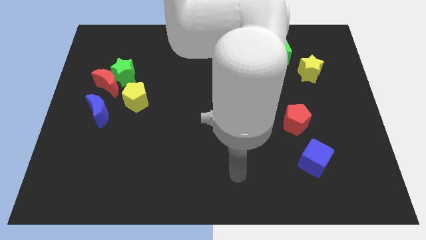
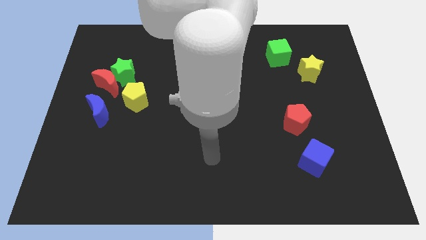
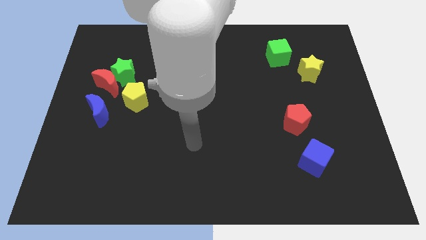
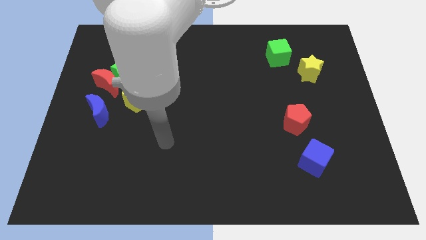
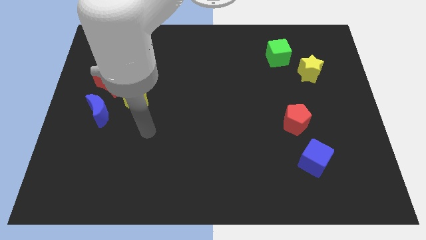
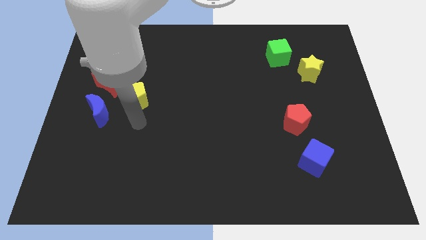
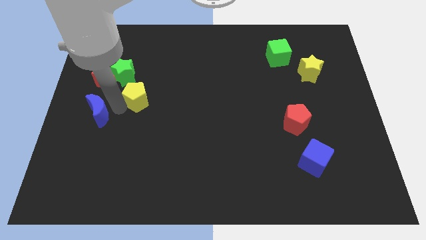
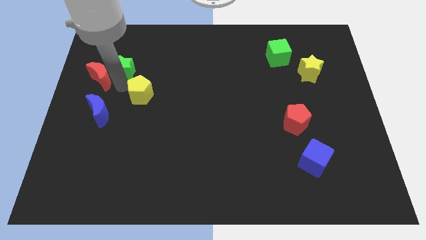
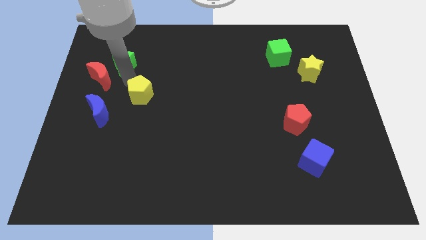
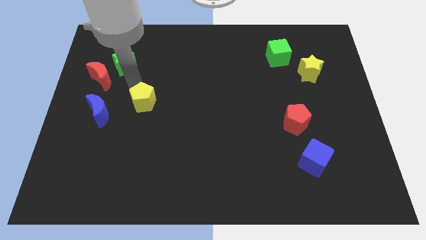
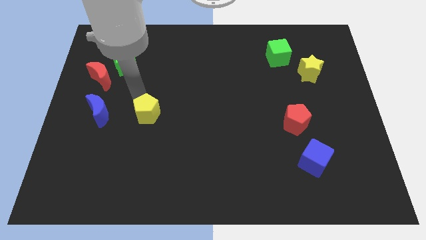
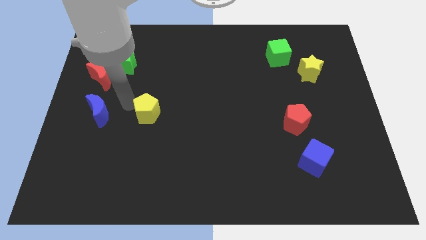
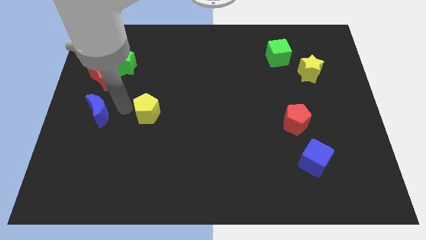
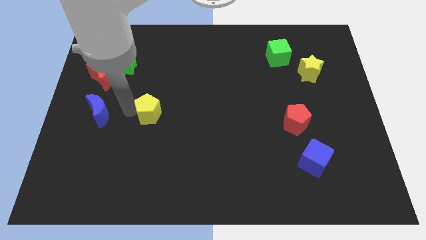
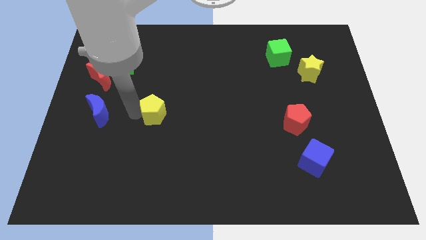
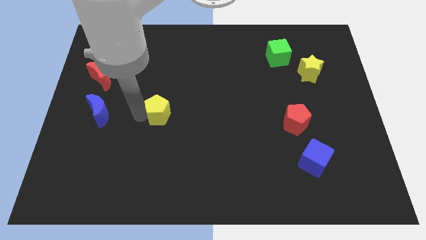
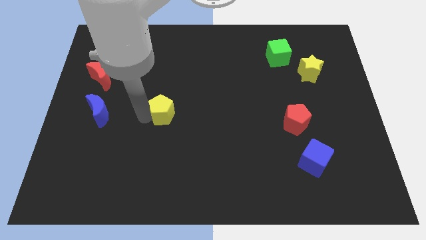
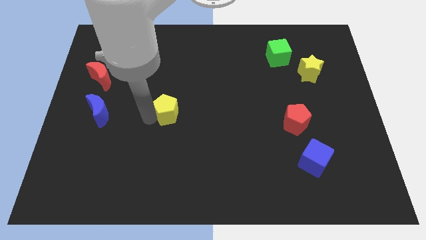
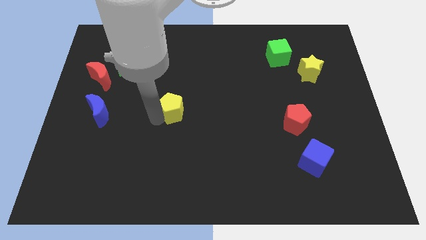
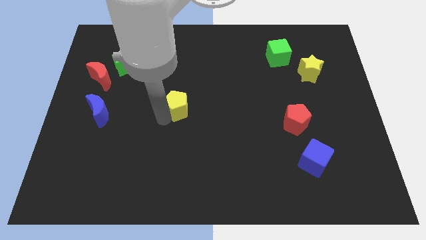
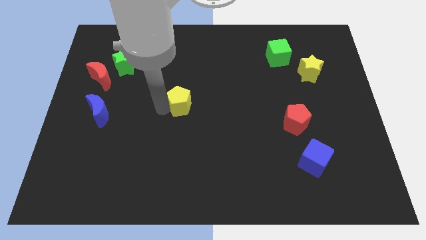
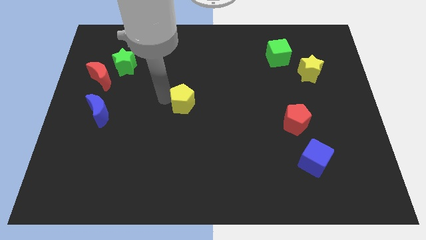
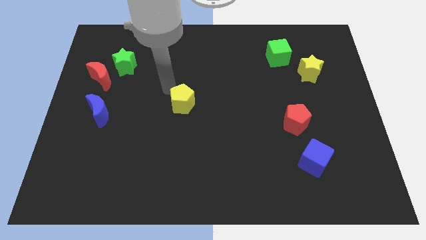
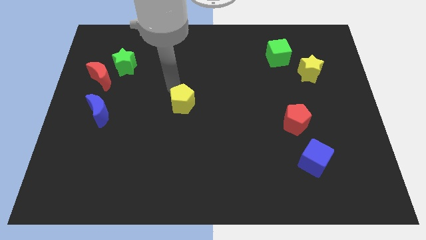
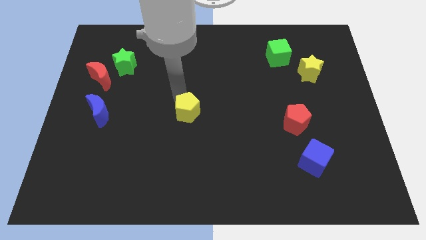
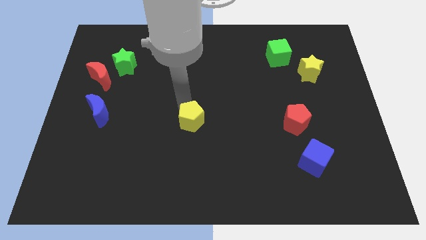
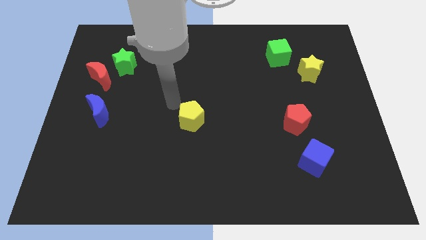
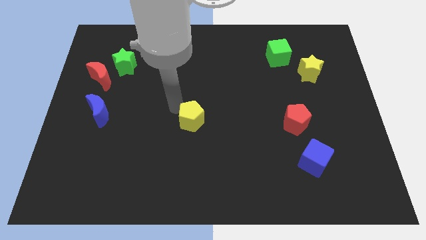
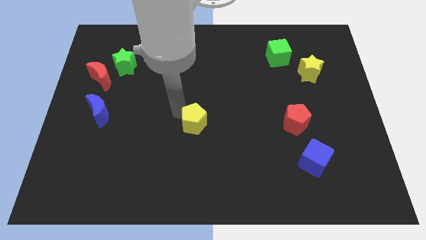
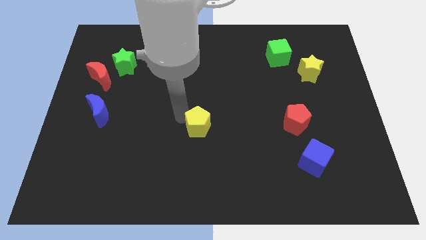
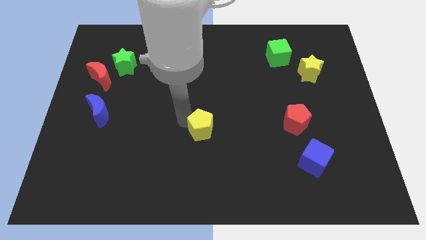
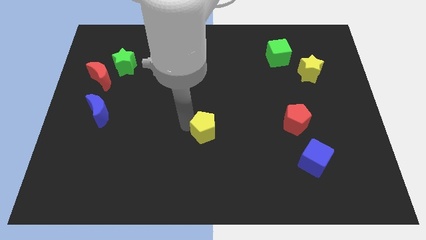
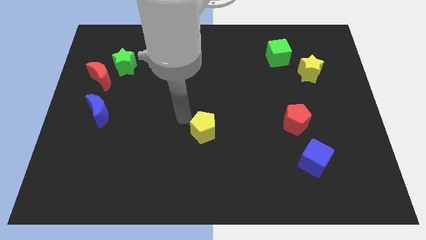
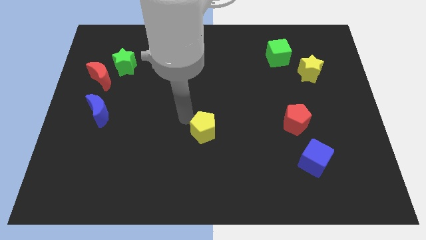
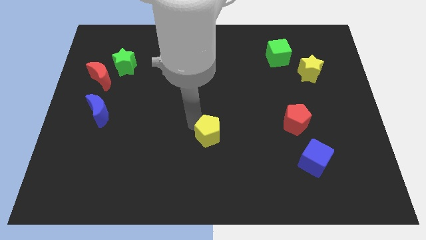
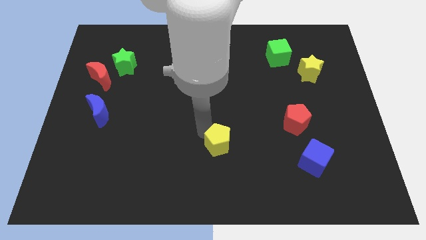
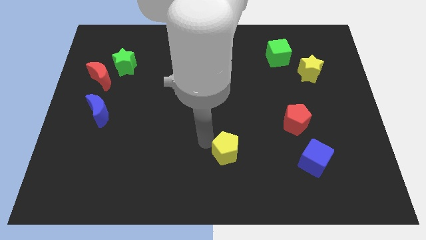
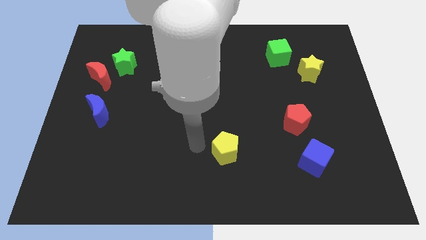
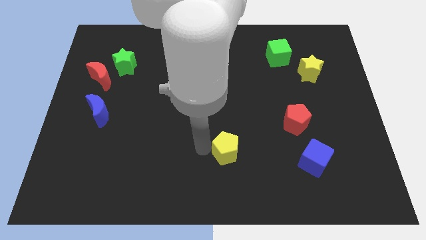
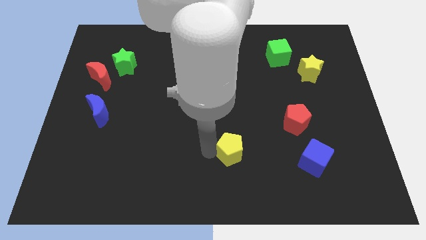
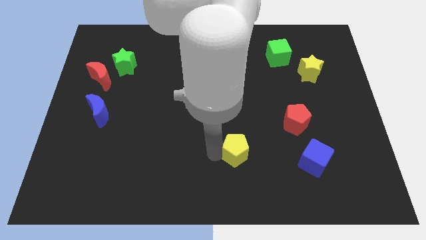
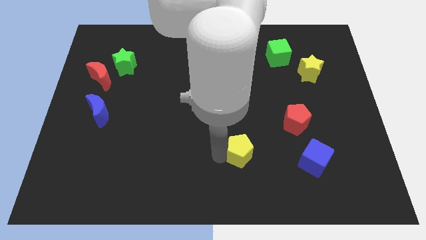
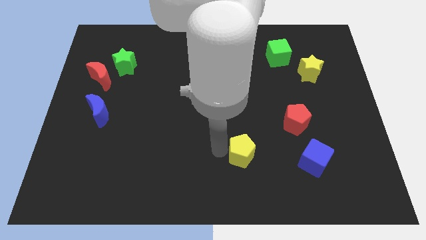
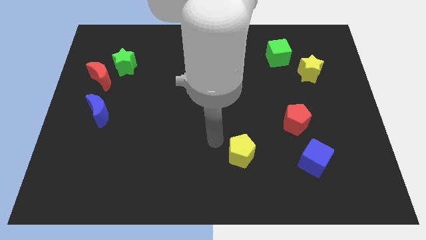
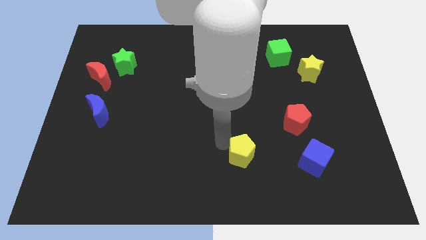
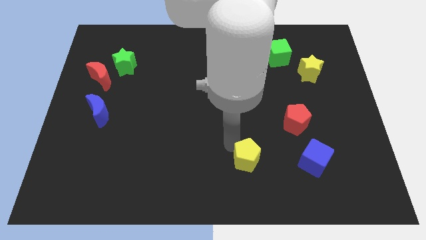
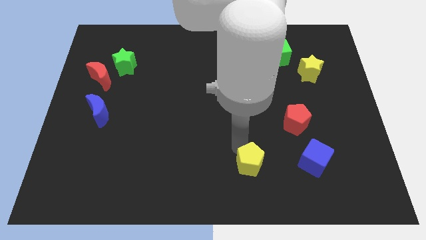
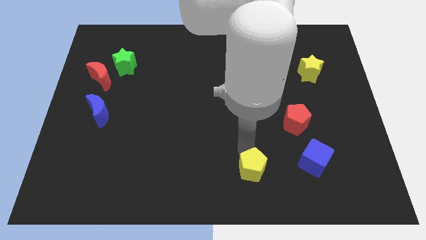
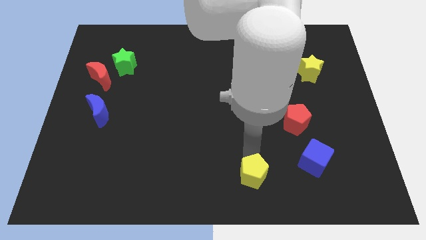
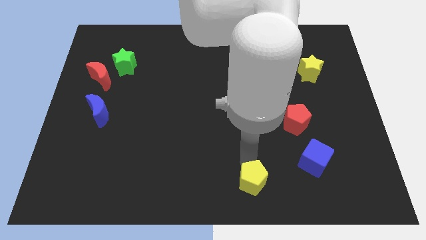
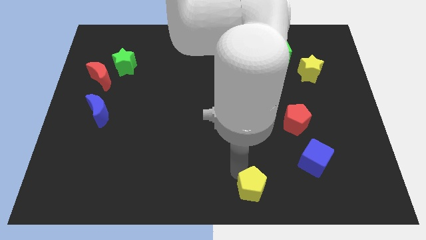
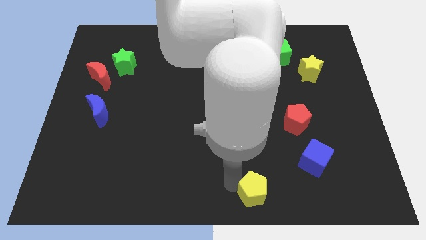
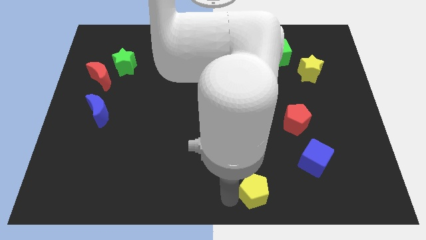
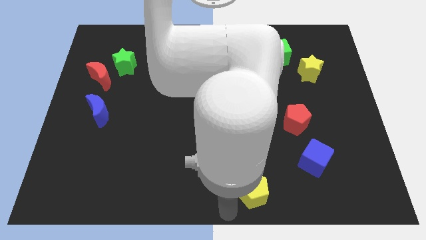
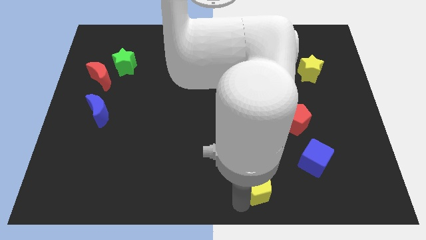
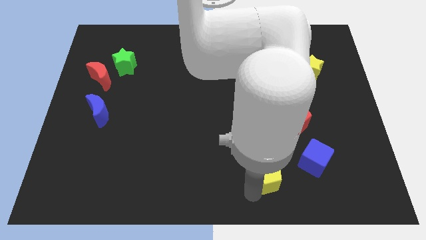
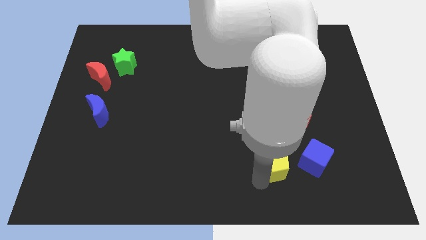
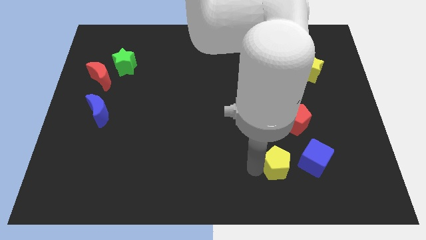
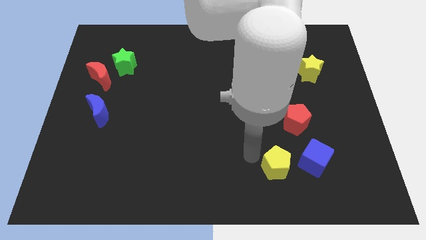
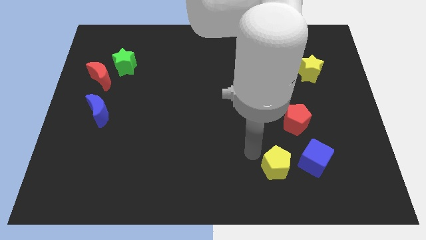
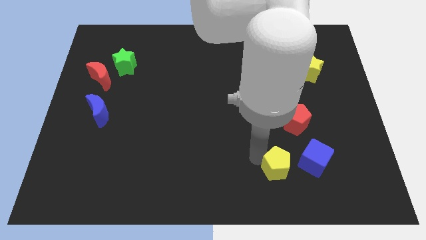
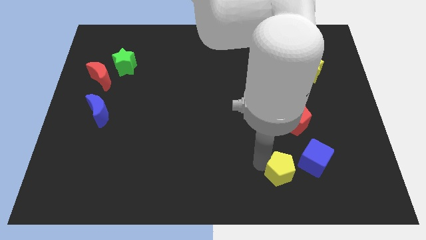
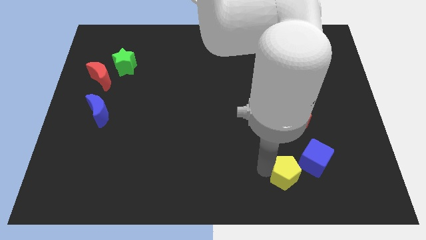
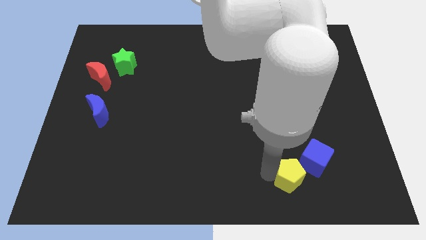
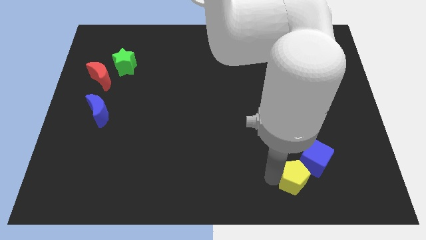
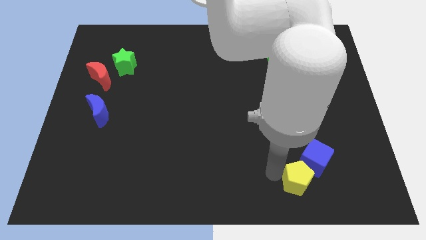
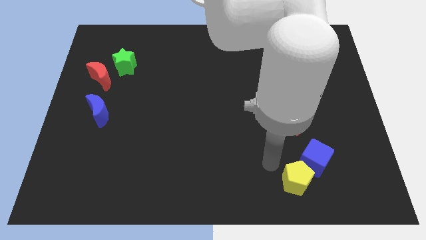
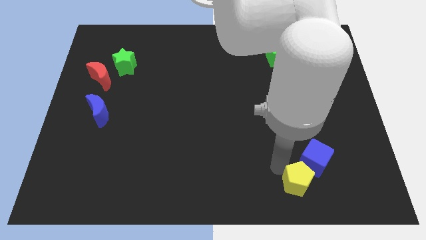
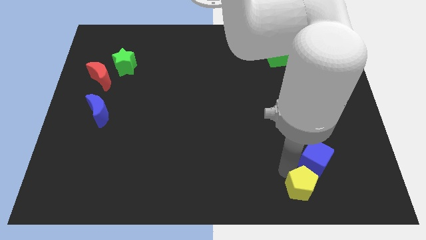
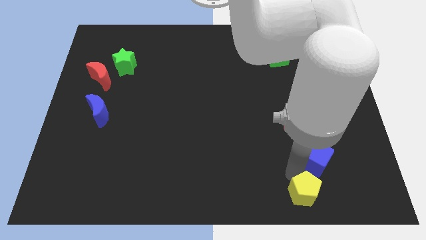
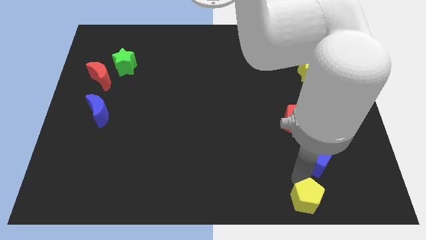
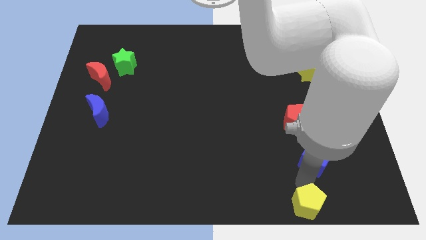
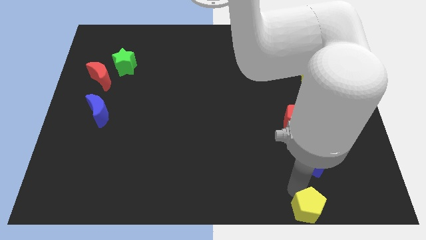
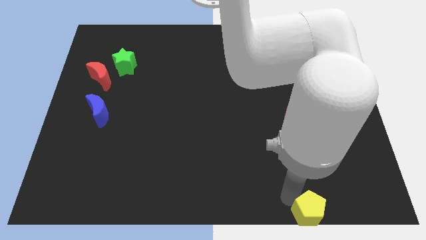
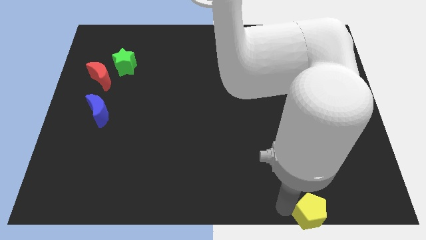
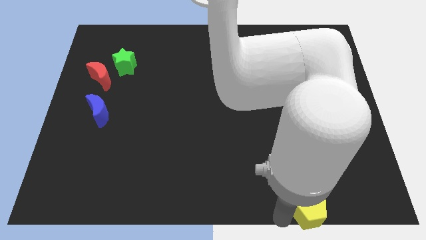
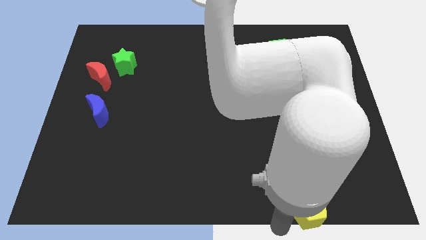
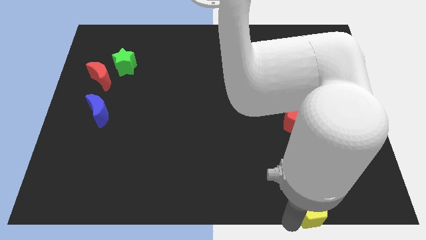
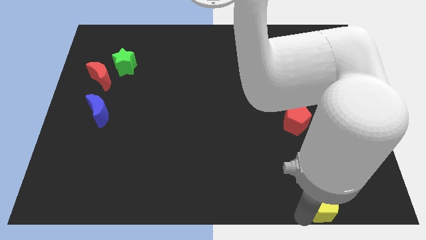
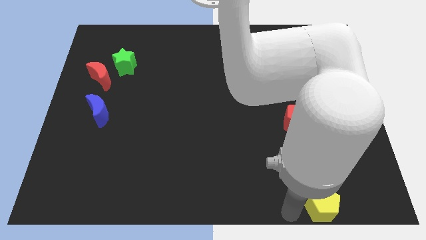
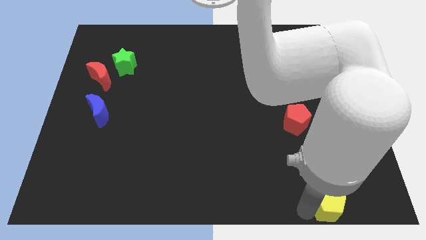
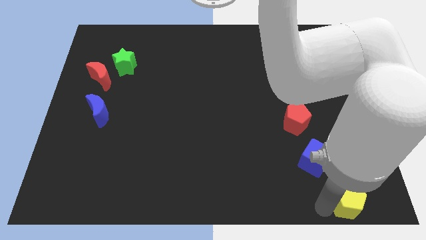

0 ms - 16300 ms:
push the yellow pentagon to the bottom right of the board
